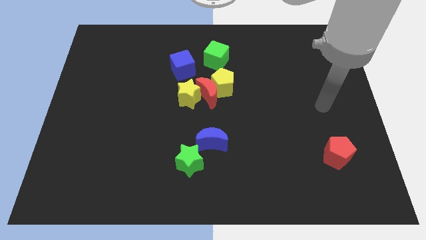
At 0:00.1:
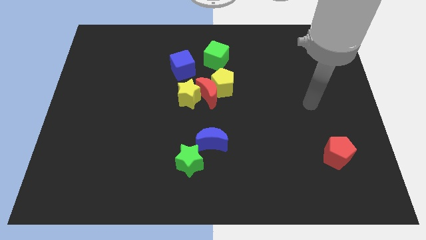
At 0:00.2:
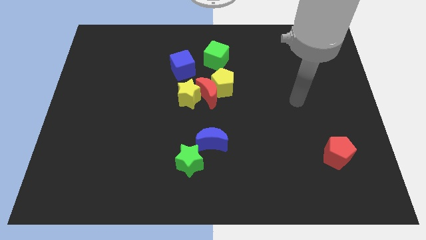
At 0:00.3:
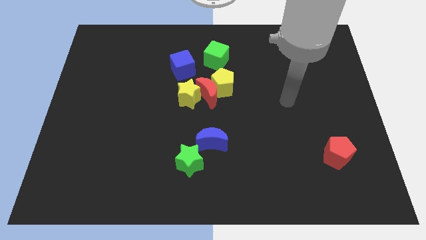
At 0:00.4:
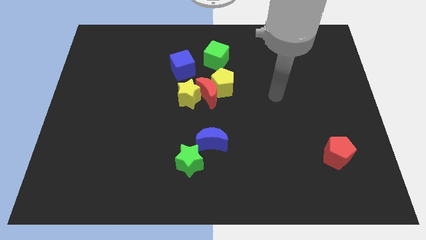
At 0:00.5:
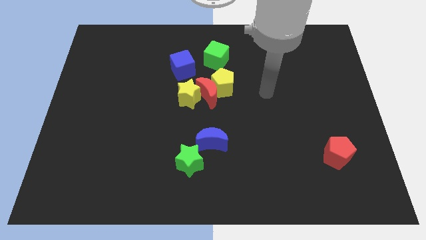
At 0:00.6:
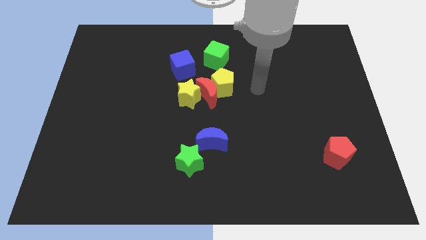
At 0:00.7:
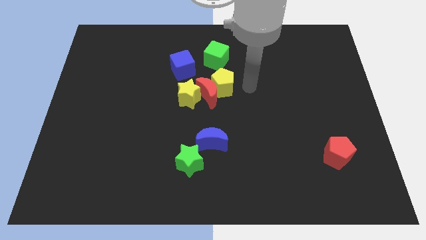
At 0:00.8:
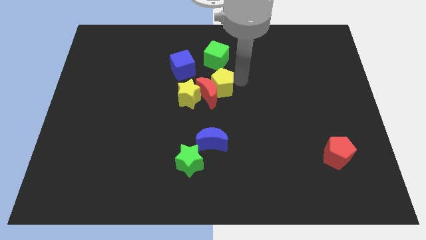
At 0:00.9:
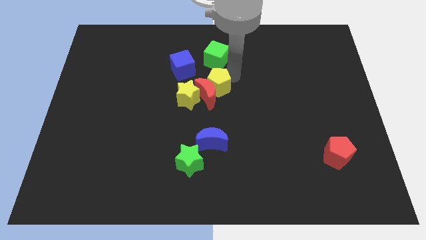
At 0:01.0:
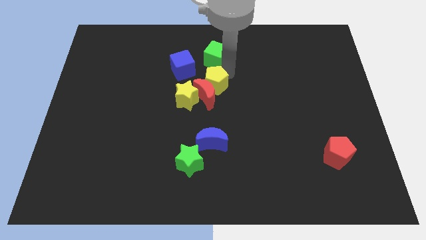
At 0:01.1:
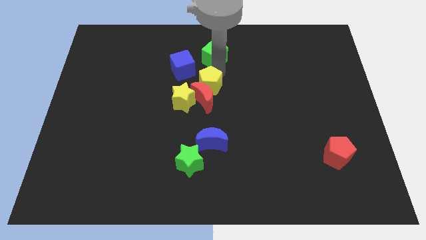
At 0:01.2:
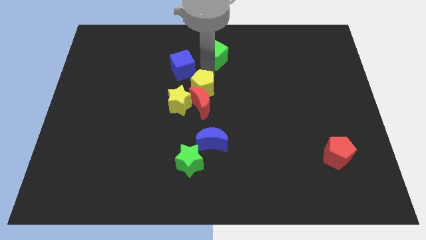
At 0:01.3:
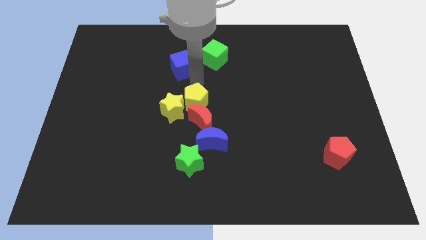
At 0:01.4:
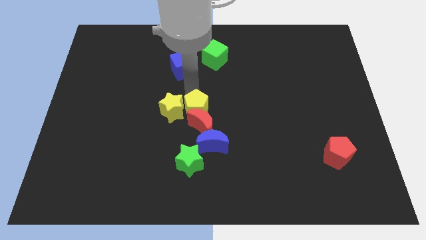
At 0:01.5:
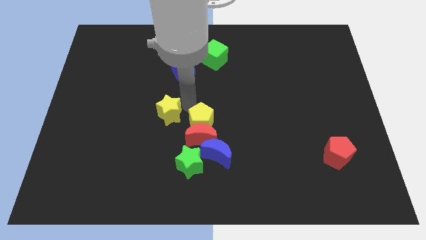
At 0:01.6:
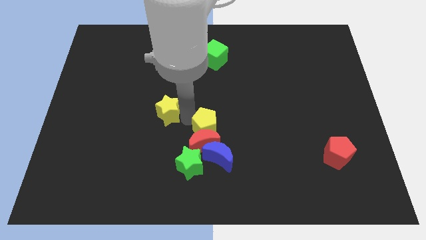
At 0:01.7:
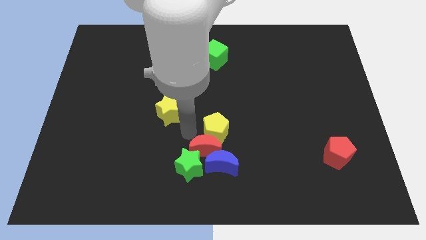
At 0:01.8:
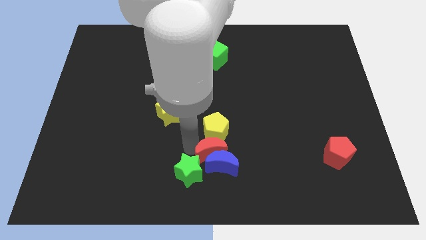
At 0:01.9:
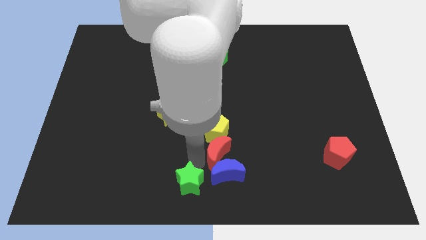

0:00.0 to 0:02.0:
separate the red moon from the yellow pentagon and yellow star

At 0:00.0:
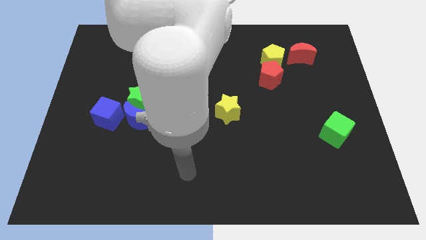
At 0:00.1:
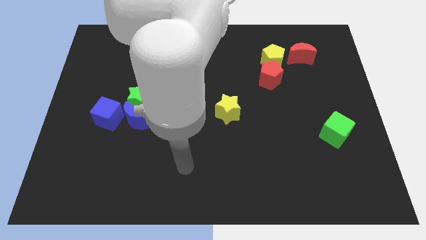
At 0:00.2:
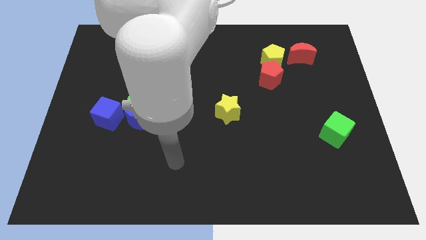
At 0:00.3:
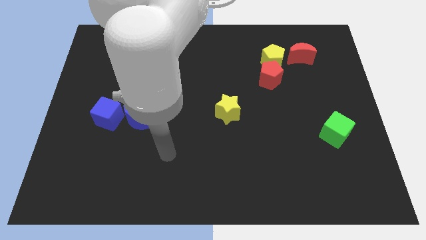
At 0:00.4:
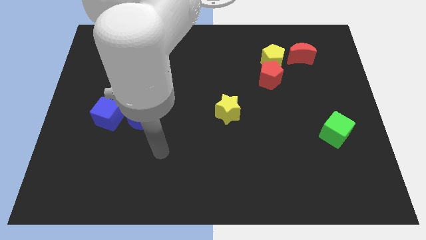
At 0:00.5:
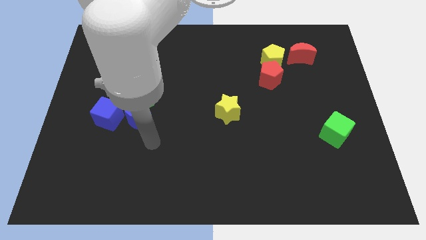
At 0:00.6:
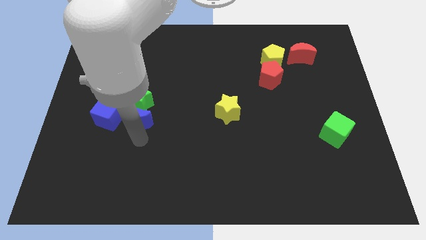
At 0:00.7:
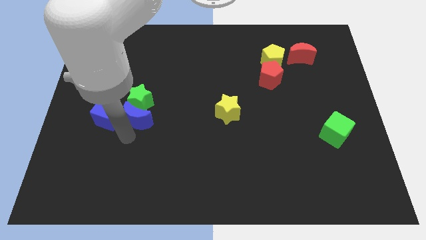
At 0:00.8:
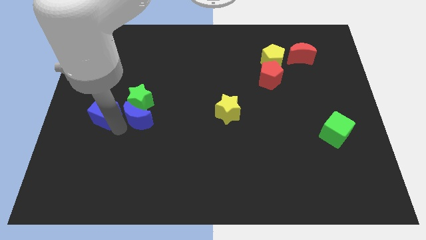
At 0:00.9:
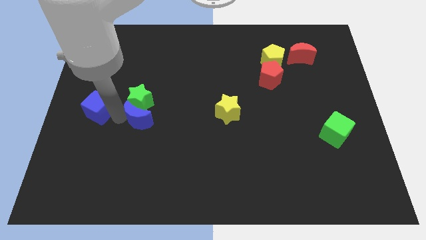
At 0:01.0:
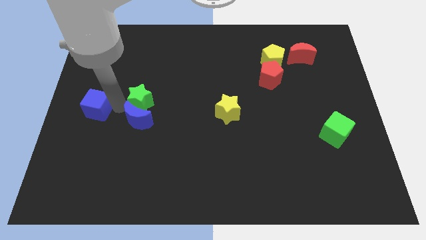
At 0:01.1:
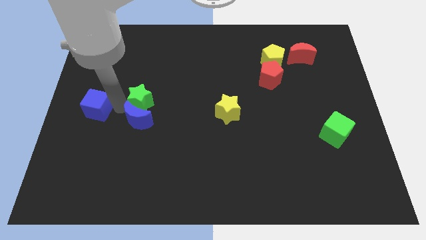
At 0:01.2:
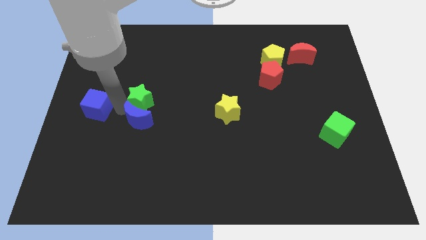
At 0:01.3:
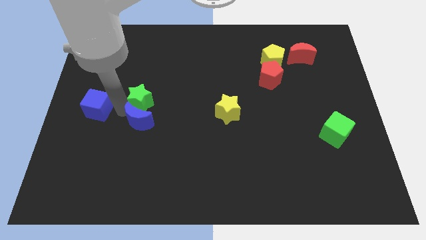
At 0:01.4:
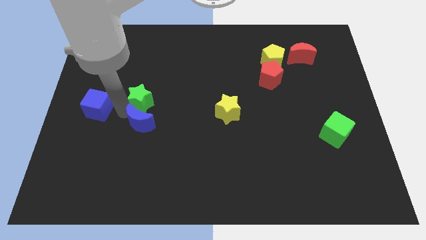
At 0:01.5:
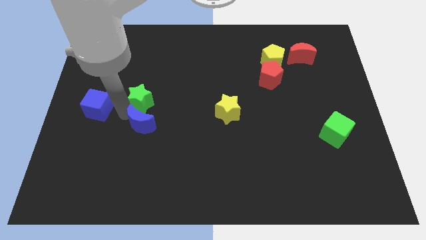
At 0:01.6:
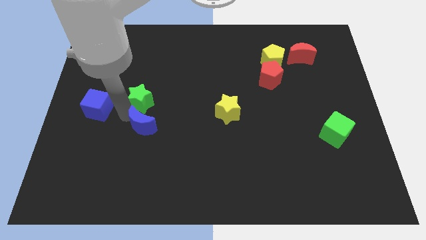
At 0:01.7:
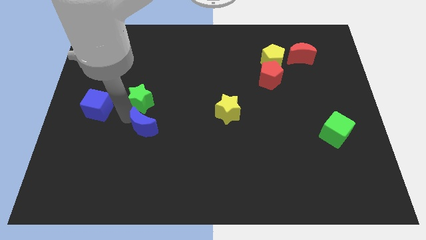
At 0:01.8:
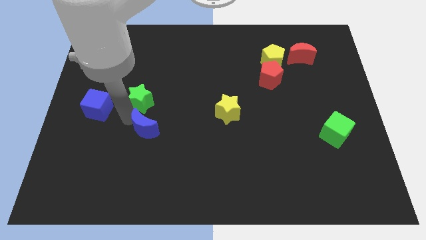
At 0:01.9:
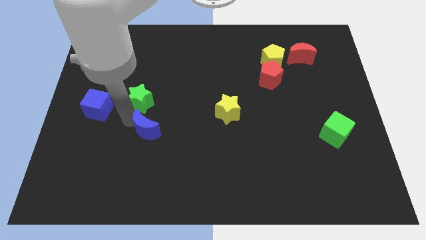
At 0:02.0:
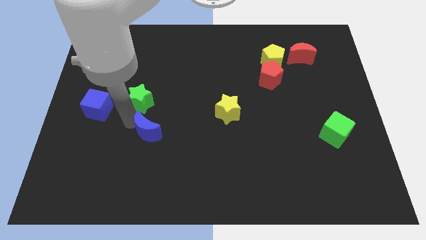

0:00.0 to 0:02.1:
separate the blue moon from the green star and blue cube

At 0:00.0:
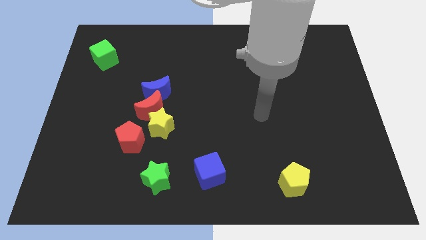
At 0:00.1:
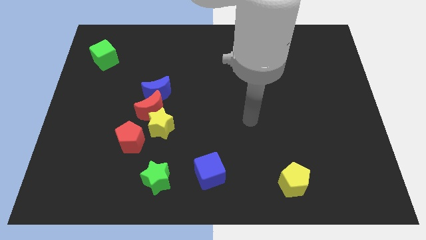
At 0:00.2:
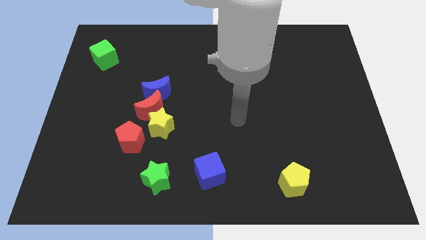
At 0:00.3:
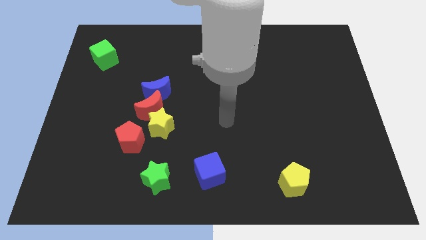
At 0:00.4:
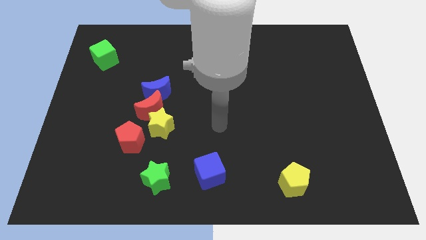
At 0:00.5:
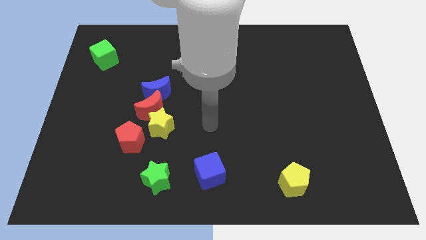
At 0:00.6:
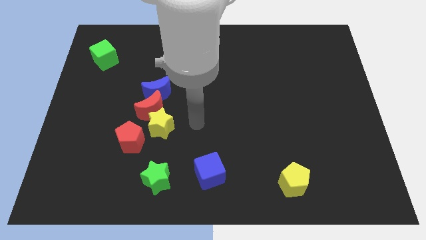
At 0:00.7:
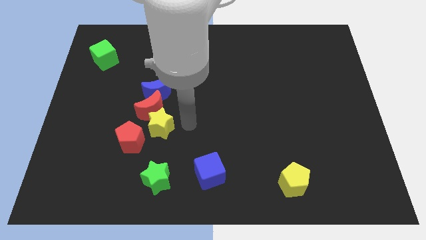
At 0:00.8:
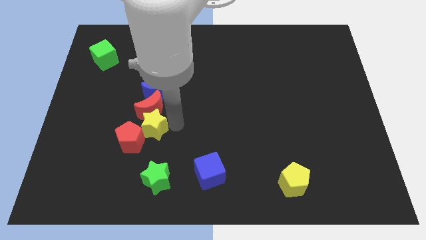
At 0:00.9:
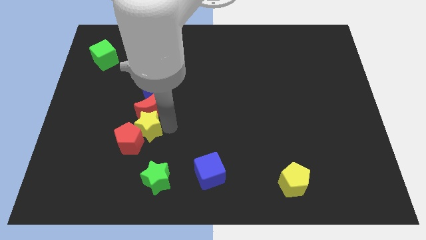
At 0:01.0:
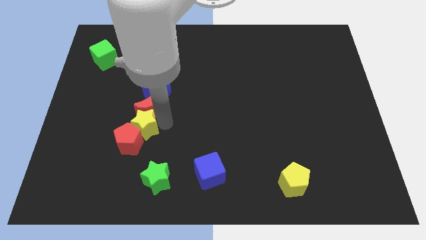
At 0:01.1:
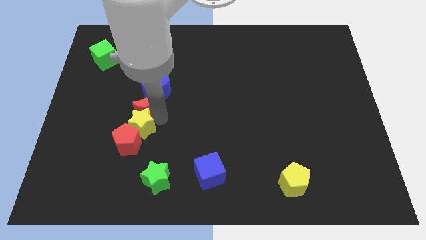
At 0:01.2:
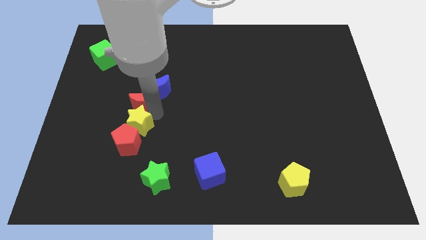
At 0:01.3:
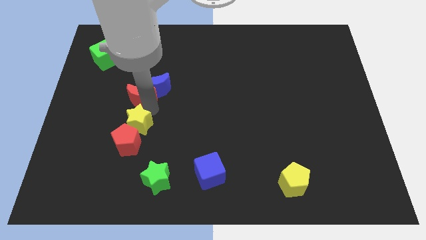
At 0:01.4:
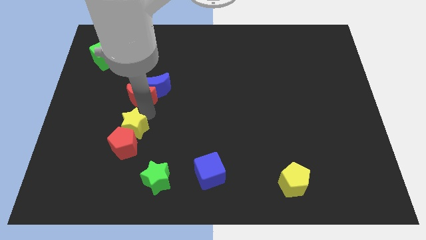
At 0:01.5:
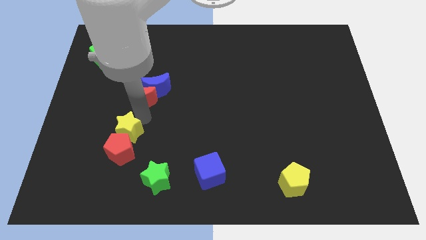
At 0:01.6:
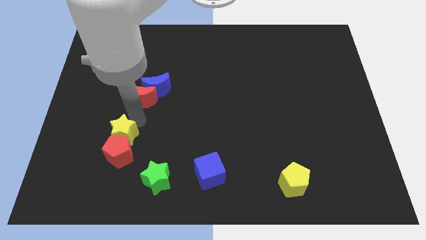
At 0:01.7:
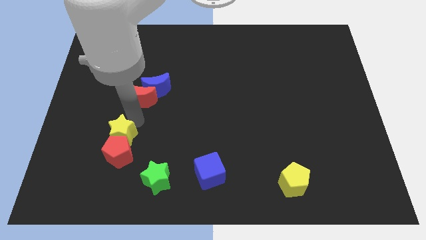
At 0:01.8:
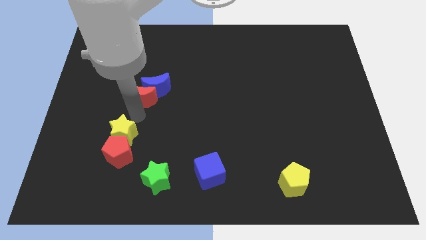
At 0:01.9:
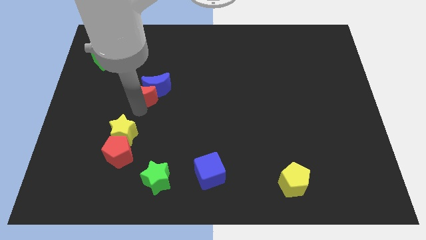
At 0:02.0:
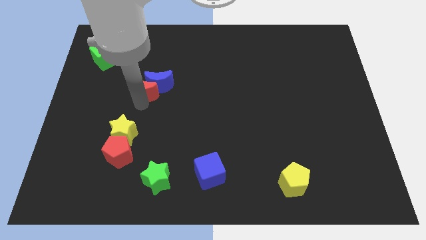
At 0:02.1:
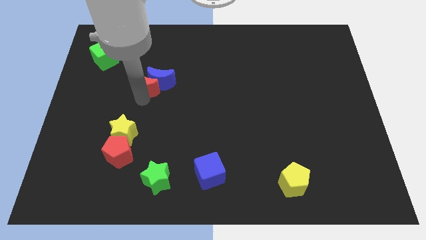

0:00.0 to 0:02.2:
move the red moon away from the group

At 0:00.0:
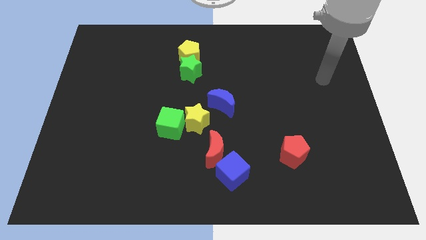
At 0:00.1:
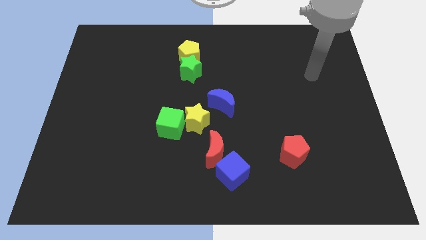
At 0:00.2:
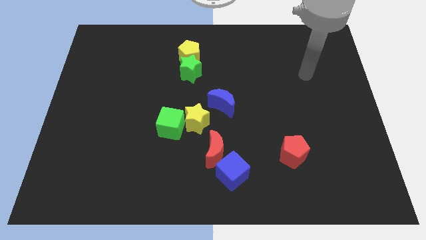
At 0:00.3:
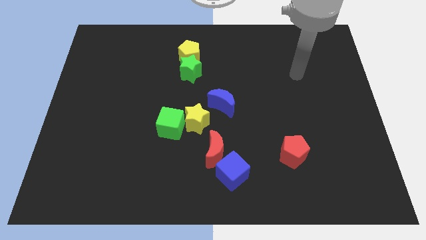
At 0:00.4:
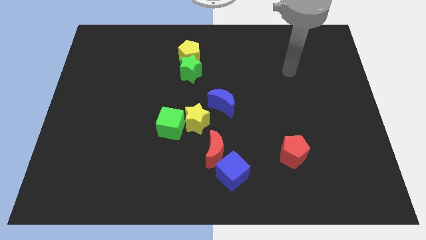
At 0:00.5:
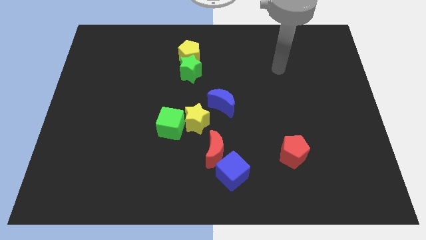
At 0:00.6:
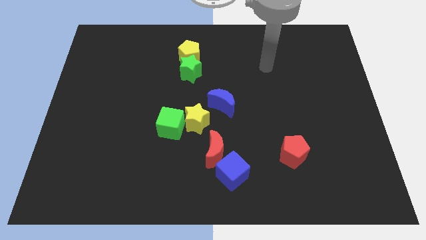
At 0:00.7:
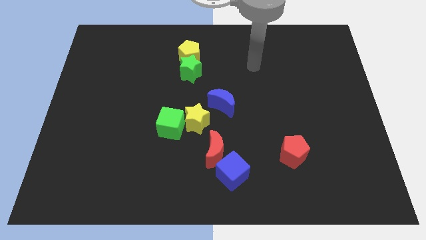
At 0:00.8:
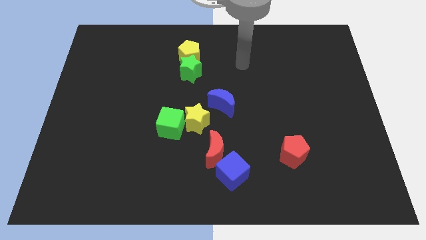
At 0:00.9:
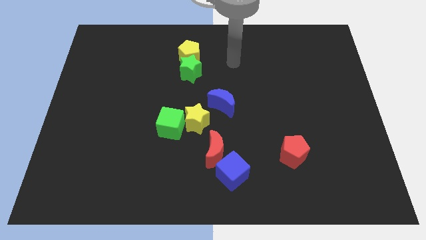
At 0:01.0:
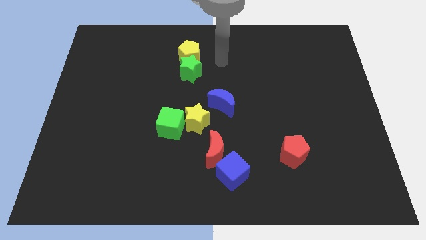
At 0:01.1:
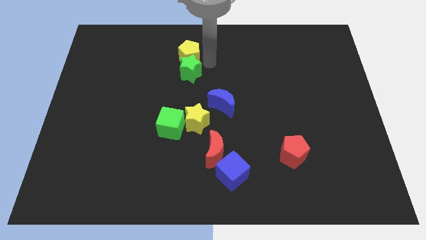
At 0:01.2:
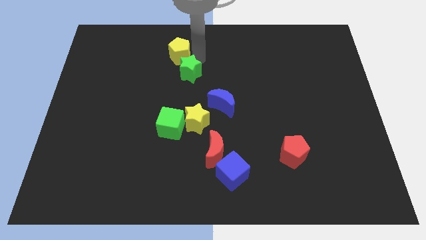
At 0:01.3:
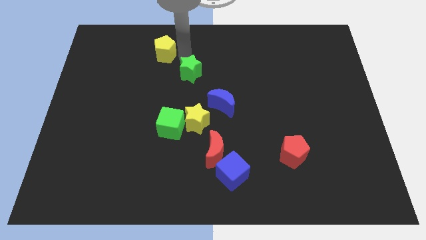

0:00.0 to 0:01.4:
pull the green star apart from the yellow pentagon

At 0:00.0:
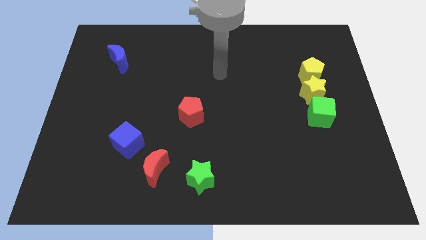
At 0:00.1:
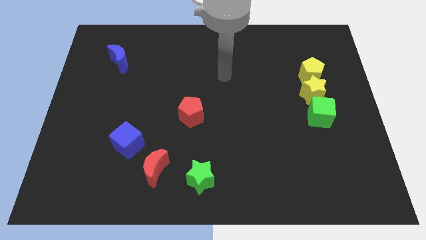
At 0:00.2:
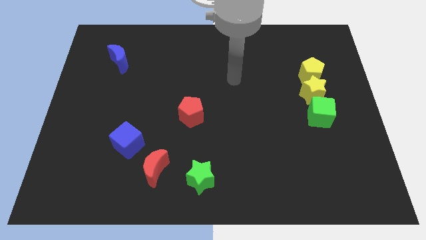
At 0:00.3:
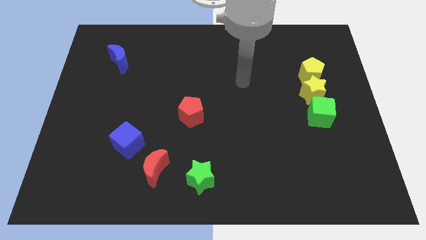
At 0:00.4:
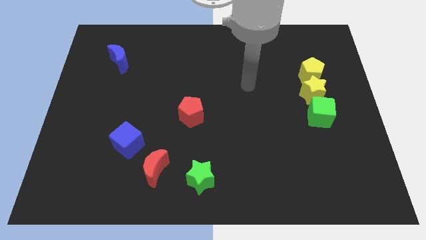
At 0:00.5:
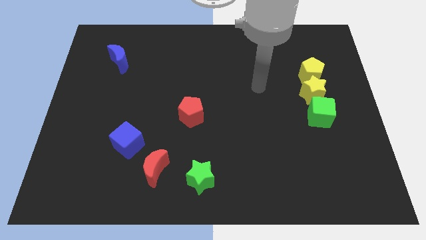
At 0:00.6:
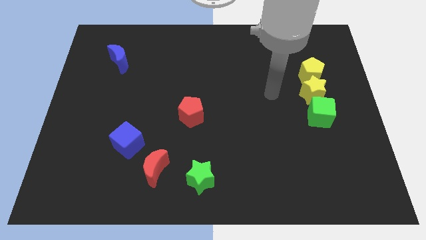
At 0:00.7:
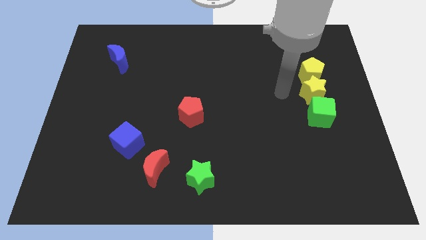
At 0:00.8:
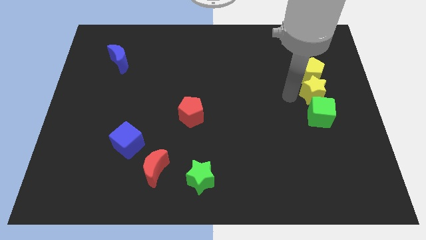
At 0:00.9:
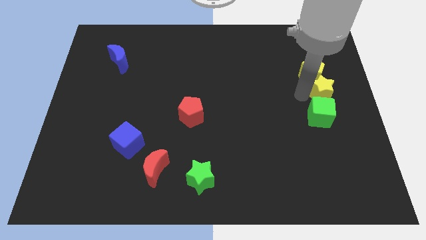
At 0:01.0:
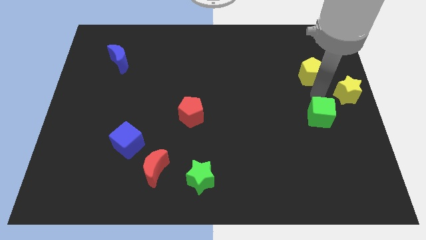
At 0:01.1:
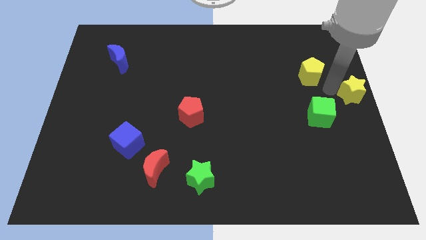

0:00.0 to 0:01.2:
pull the yellow pentagon apart from the yellow star

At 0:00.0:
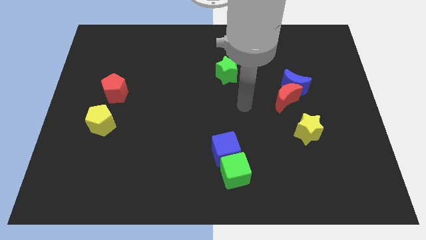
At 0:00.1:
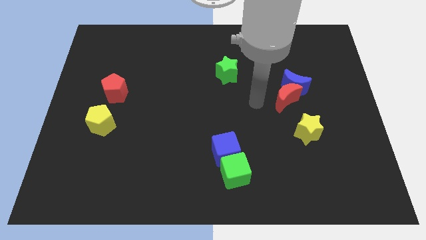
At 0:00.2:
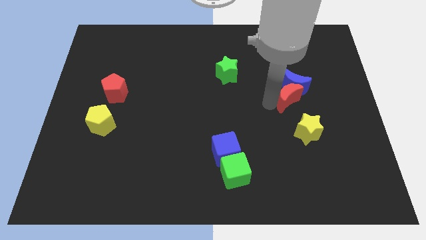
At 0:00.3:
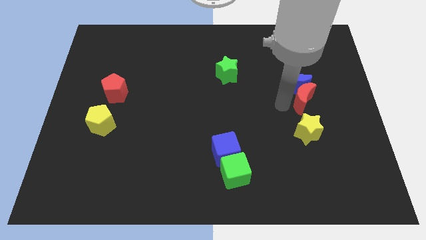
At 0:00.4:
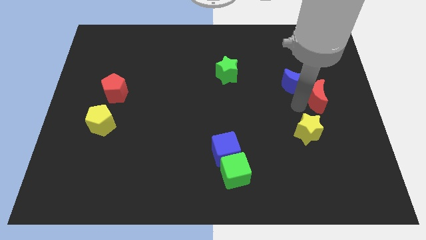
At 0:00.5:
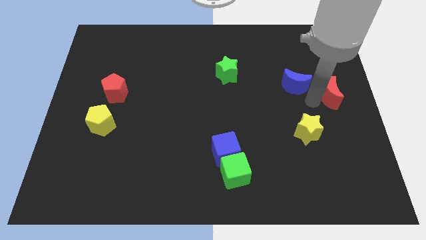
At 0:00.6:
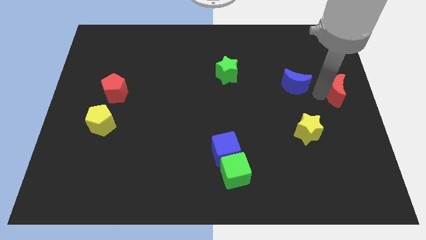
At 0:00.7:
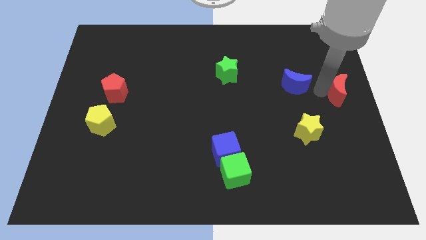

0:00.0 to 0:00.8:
separate the blue moon from the red moon
